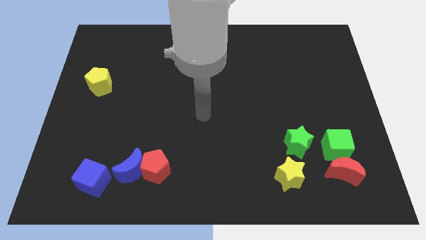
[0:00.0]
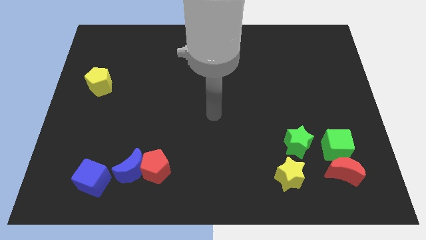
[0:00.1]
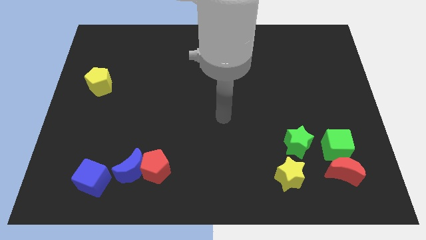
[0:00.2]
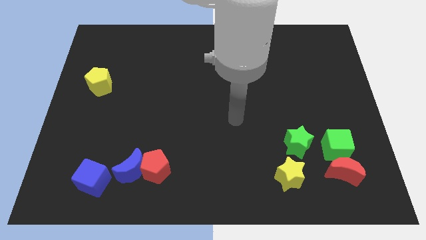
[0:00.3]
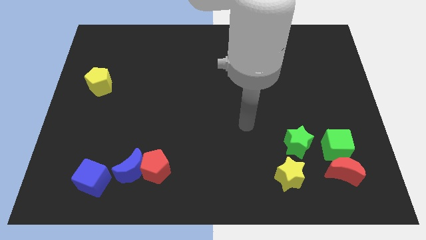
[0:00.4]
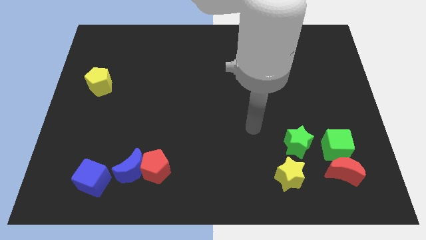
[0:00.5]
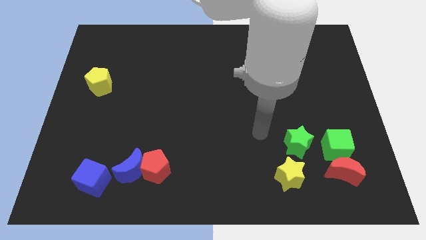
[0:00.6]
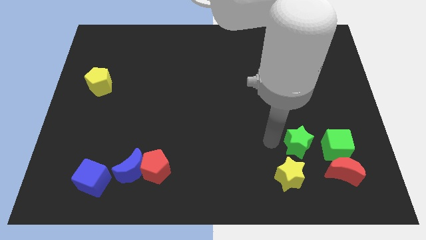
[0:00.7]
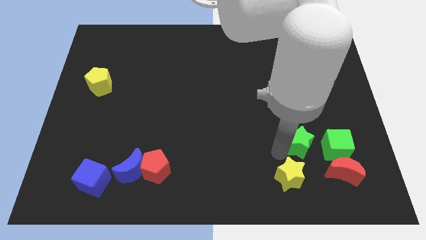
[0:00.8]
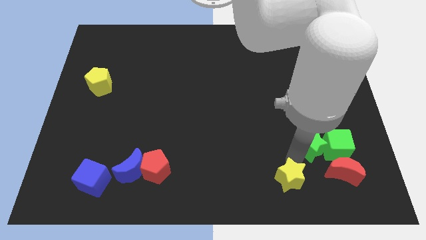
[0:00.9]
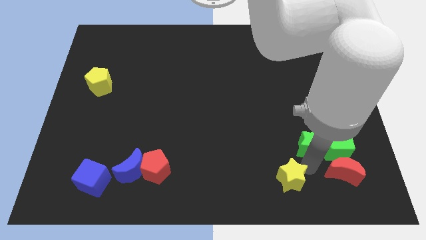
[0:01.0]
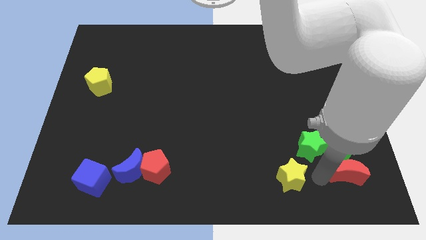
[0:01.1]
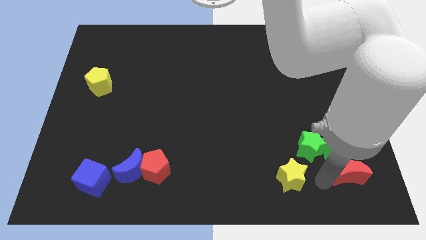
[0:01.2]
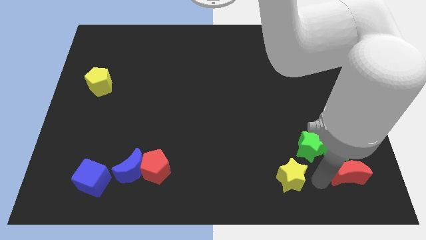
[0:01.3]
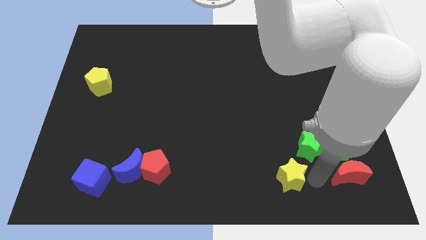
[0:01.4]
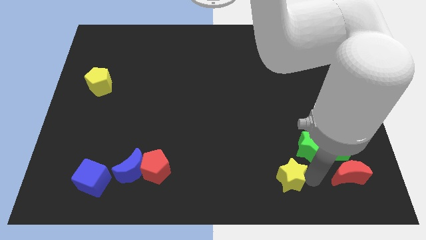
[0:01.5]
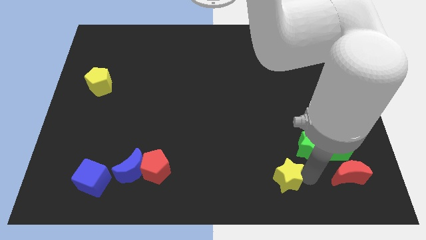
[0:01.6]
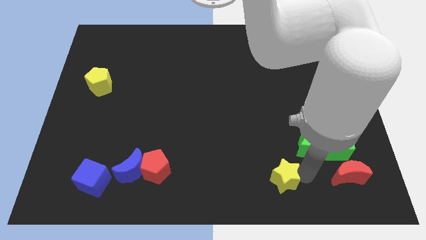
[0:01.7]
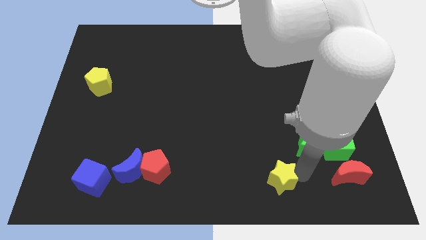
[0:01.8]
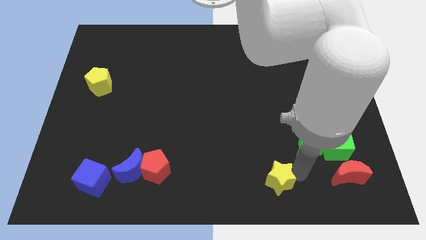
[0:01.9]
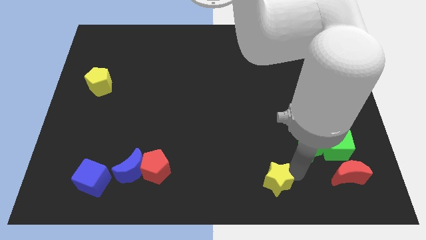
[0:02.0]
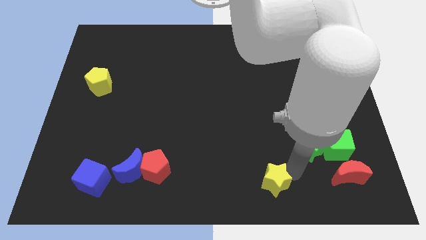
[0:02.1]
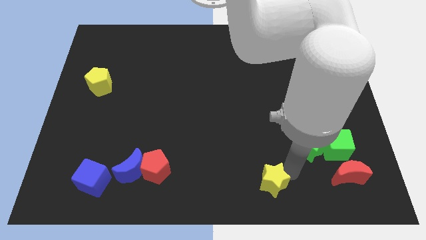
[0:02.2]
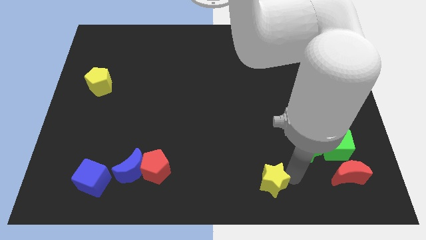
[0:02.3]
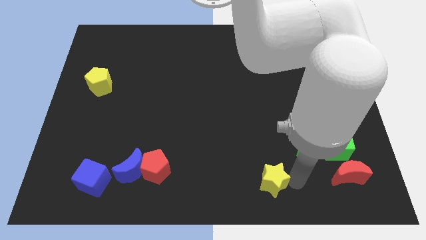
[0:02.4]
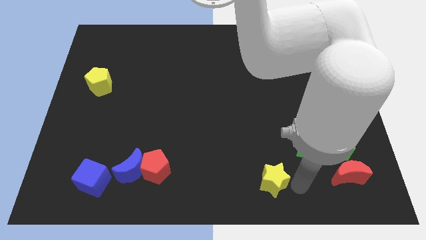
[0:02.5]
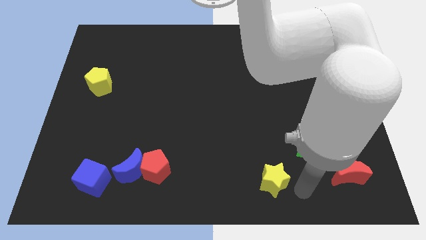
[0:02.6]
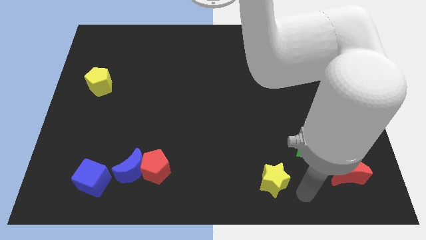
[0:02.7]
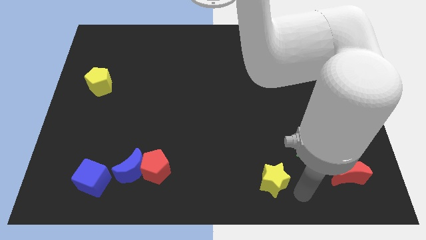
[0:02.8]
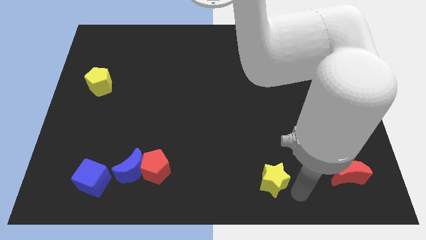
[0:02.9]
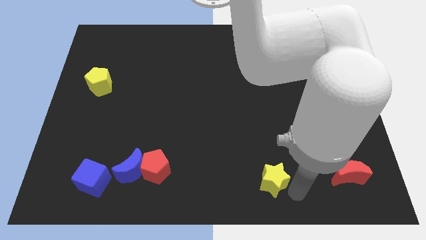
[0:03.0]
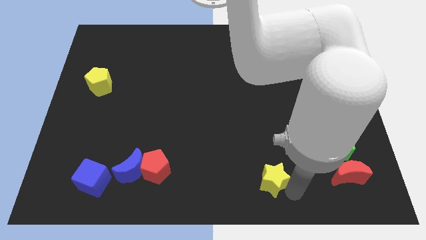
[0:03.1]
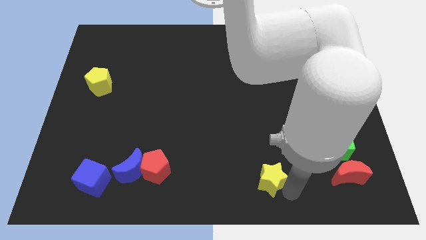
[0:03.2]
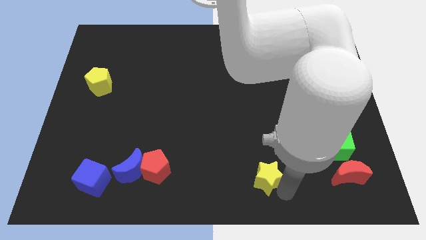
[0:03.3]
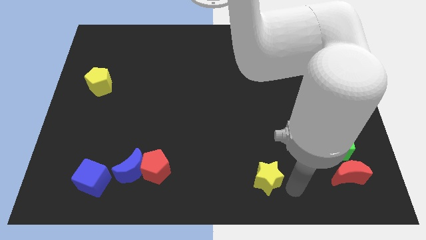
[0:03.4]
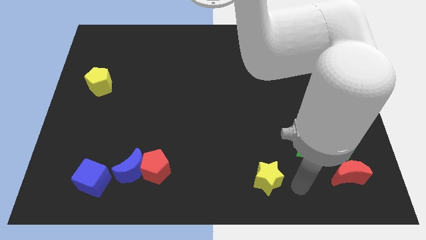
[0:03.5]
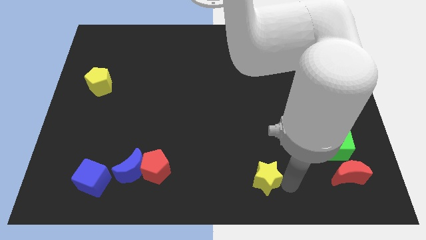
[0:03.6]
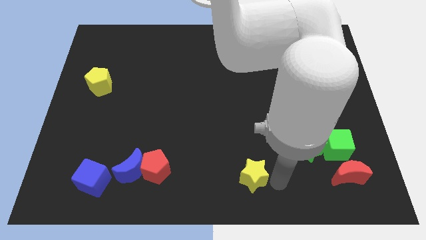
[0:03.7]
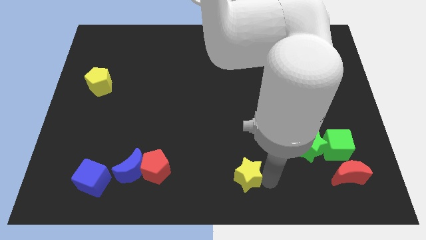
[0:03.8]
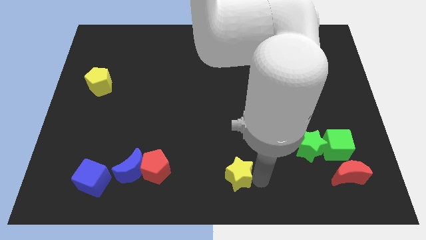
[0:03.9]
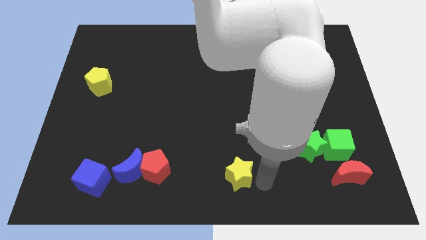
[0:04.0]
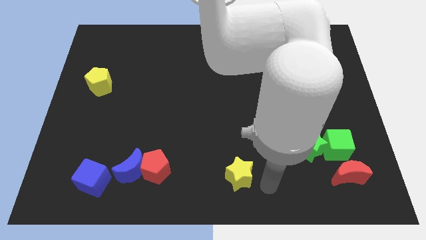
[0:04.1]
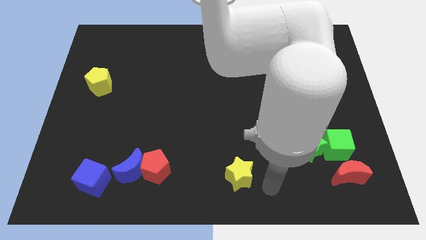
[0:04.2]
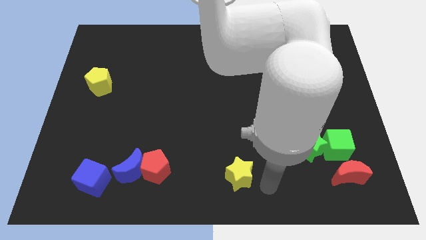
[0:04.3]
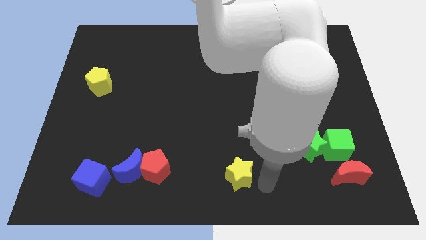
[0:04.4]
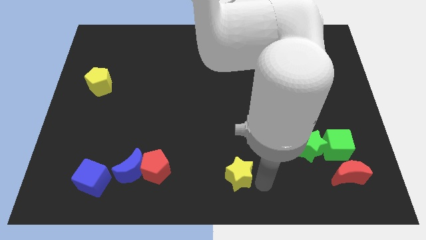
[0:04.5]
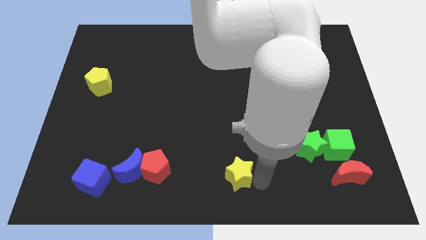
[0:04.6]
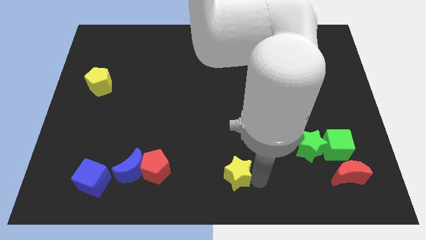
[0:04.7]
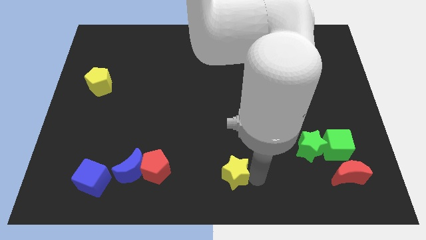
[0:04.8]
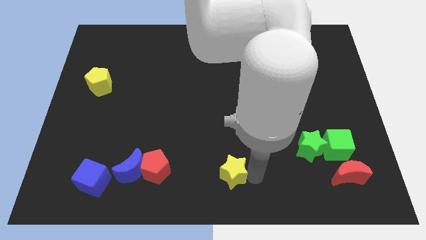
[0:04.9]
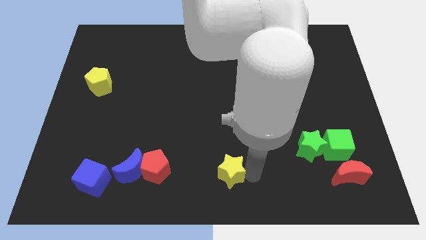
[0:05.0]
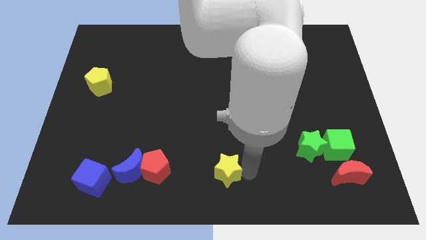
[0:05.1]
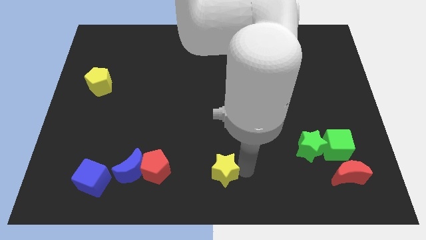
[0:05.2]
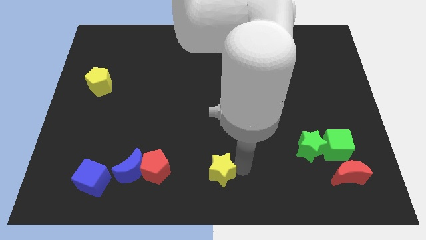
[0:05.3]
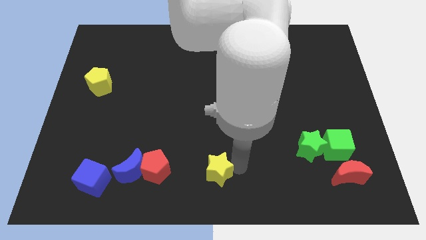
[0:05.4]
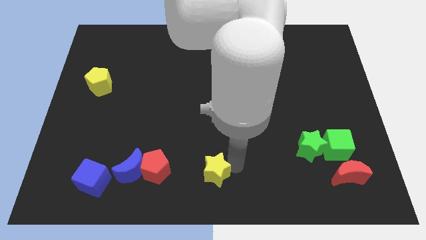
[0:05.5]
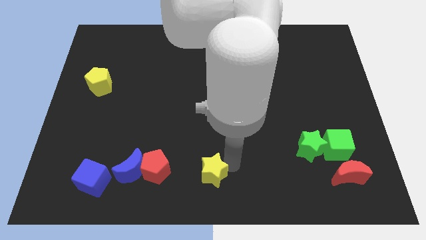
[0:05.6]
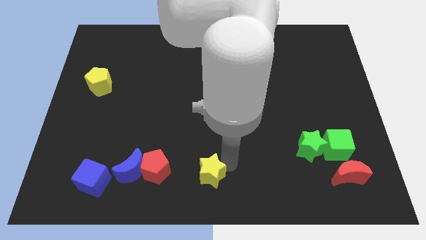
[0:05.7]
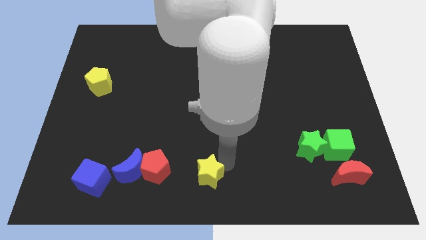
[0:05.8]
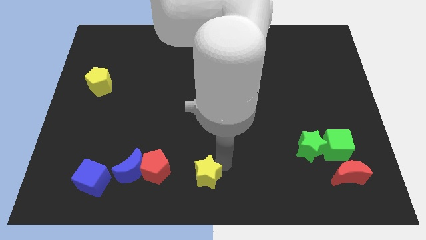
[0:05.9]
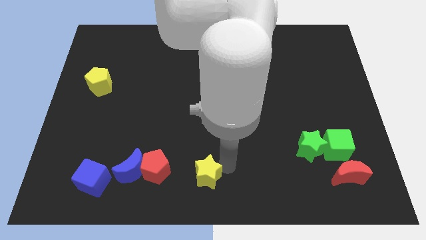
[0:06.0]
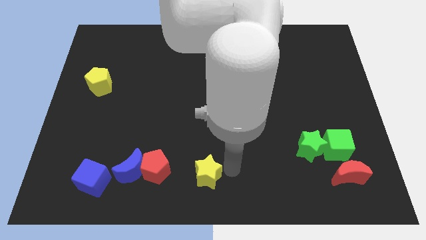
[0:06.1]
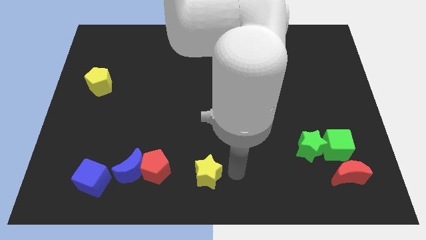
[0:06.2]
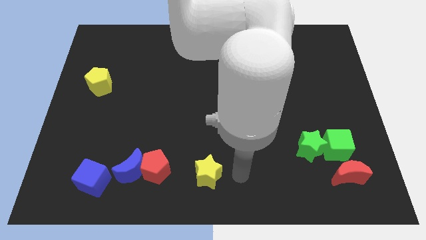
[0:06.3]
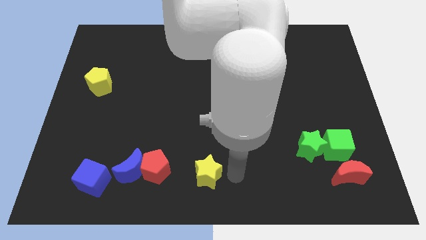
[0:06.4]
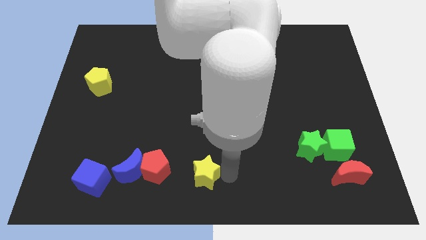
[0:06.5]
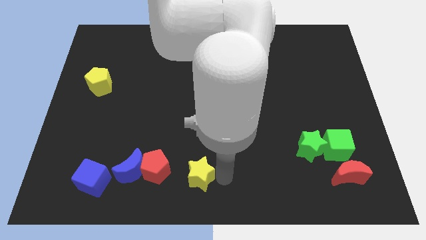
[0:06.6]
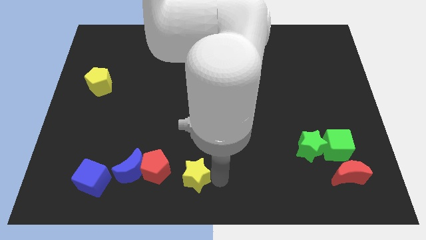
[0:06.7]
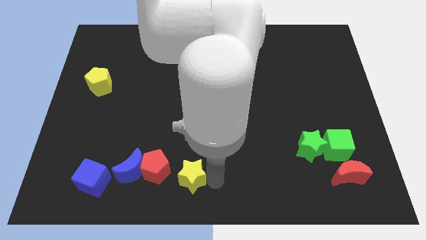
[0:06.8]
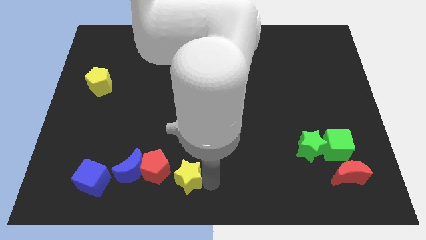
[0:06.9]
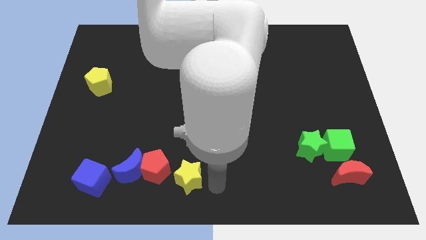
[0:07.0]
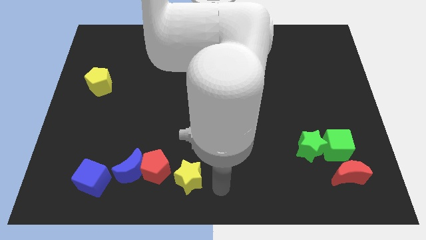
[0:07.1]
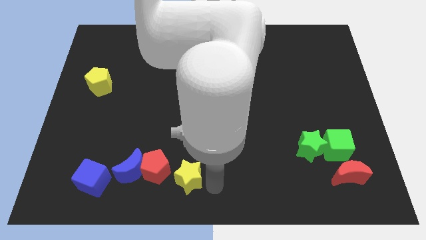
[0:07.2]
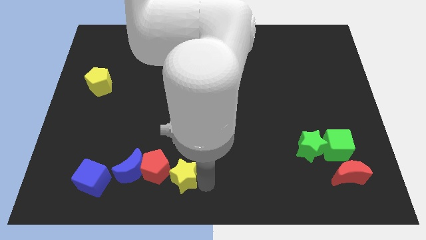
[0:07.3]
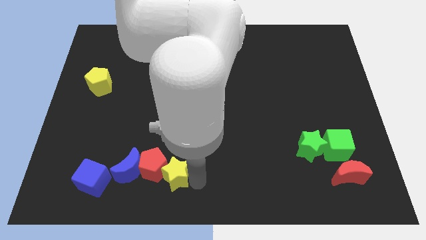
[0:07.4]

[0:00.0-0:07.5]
move the yellow star towards the red pentagon
